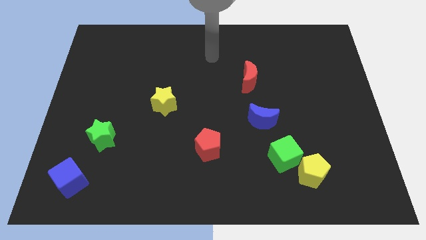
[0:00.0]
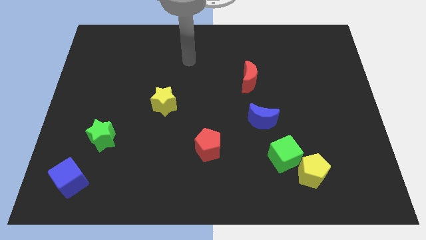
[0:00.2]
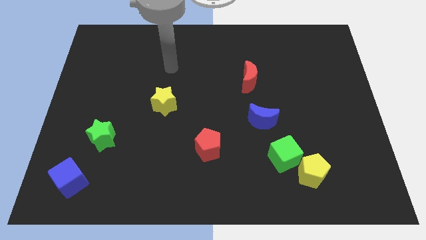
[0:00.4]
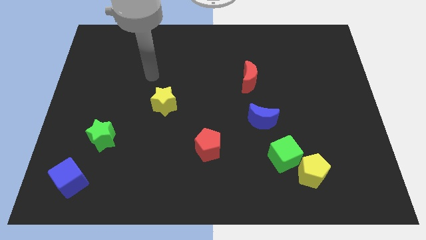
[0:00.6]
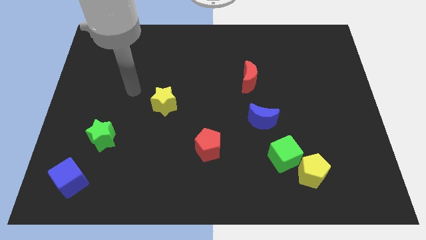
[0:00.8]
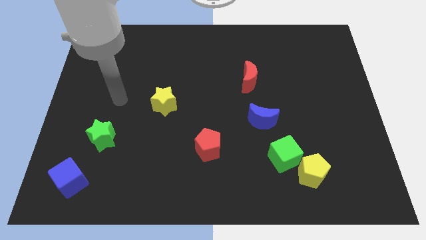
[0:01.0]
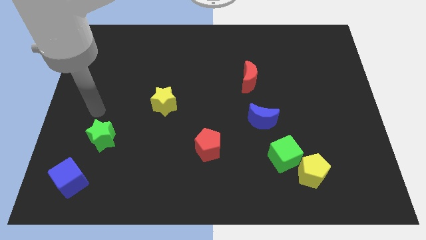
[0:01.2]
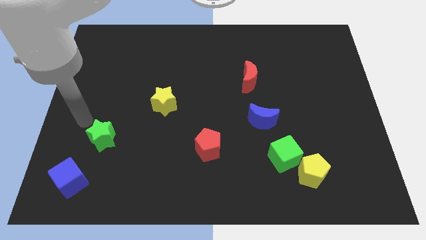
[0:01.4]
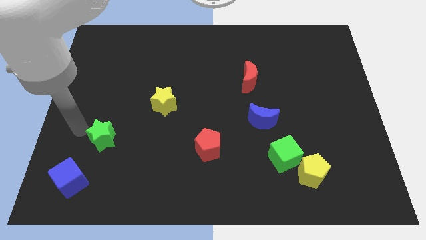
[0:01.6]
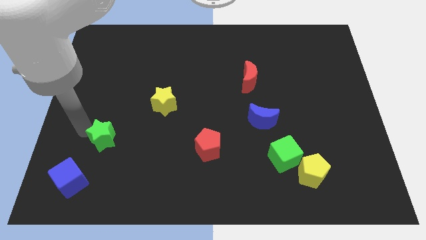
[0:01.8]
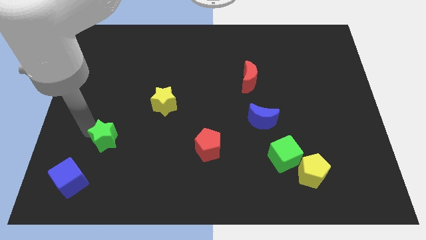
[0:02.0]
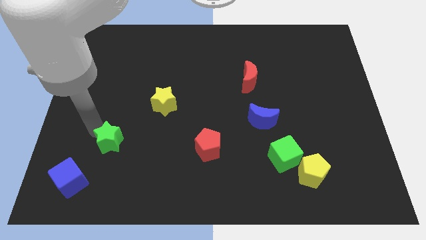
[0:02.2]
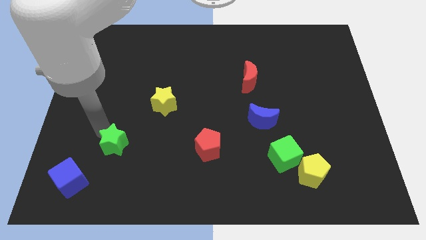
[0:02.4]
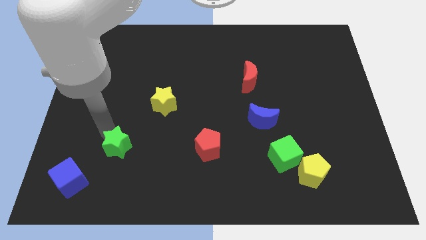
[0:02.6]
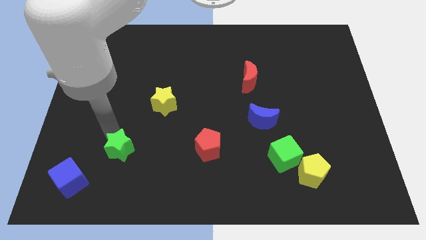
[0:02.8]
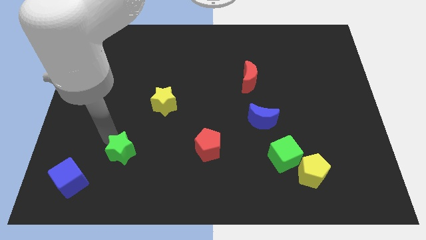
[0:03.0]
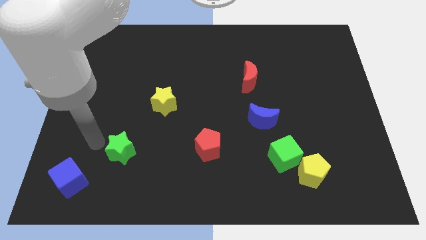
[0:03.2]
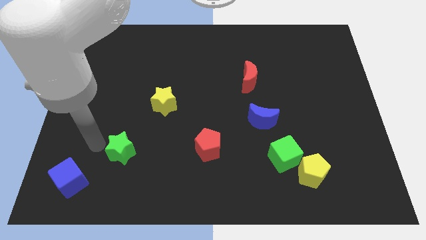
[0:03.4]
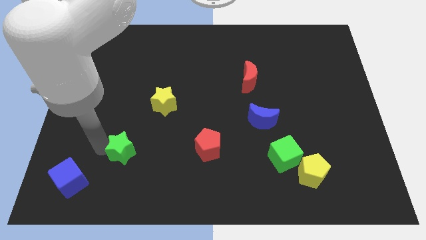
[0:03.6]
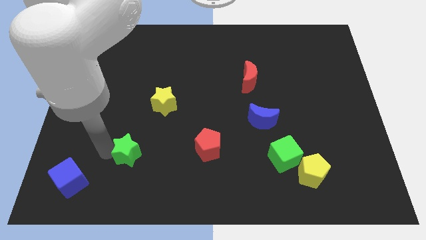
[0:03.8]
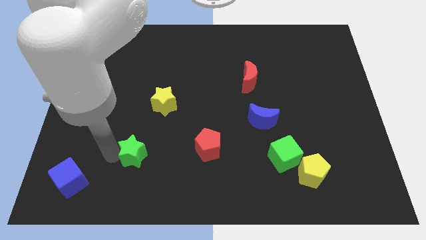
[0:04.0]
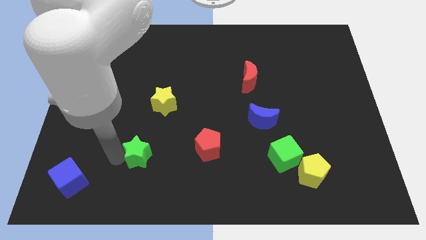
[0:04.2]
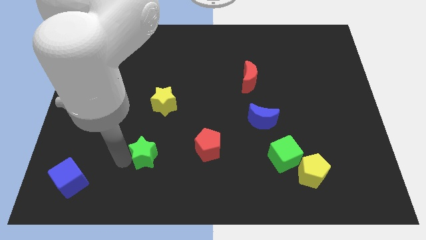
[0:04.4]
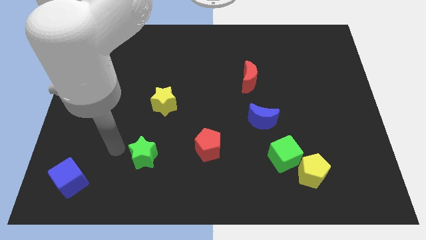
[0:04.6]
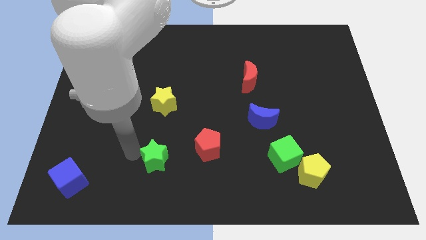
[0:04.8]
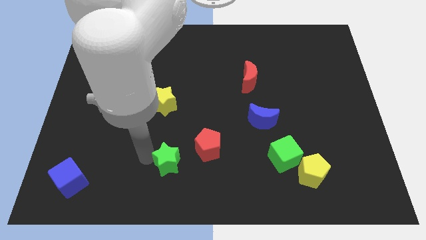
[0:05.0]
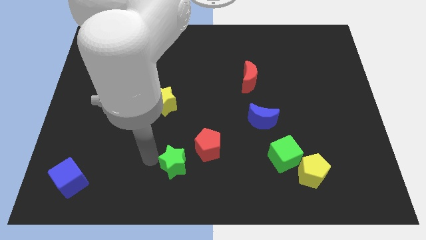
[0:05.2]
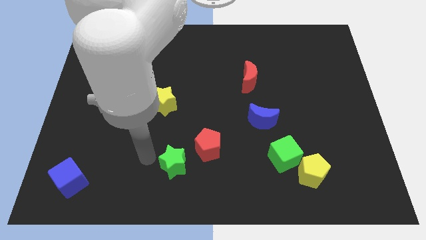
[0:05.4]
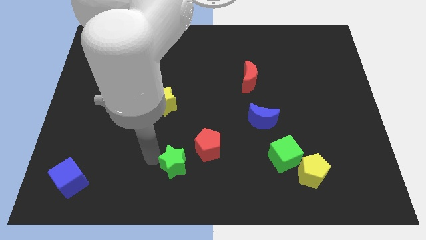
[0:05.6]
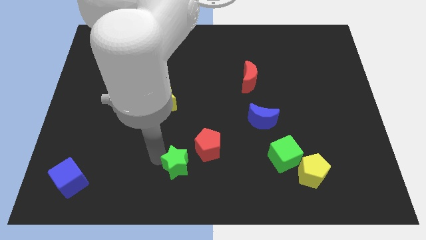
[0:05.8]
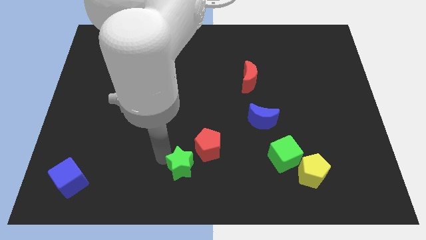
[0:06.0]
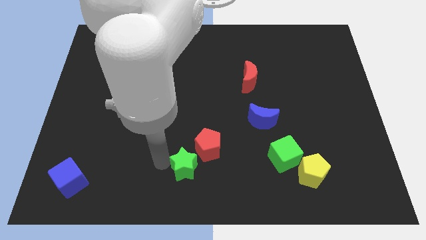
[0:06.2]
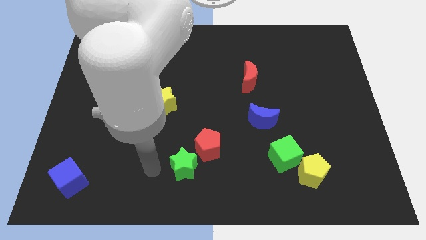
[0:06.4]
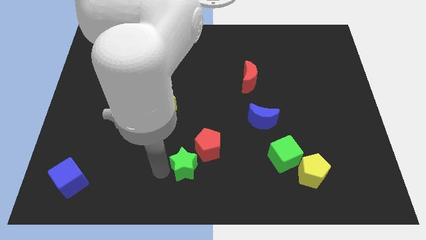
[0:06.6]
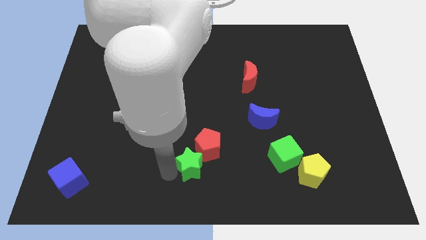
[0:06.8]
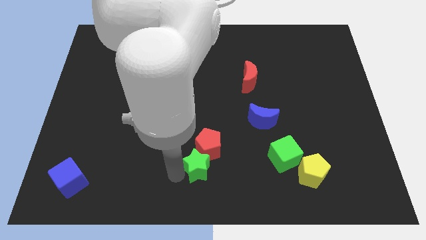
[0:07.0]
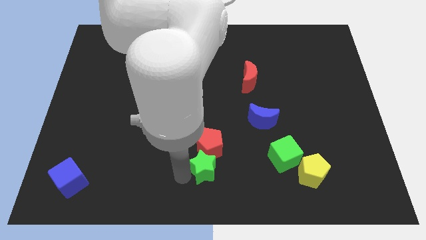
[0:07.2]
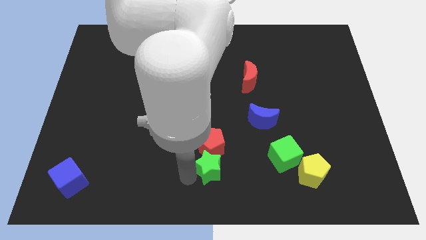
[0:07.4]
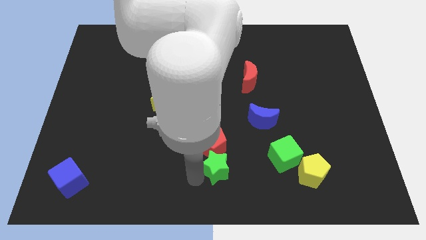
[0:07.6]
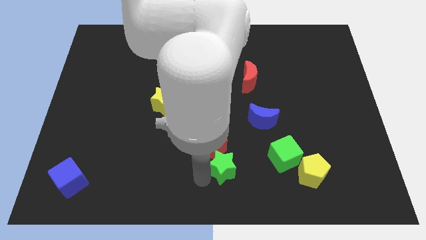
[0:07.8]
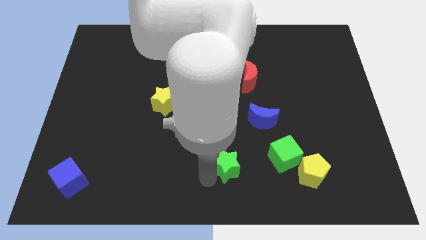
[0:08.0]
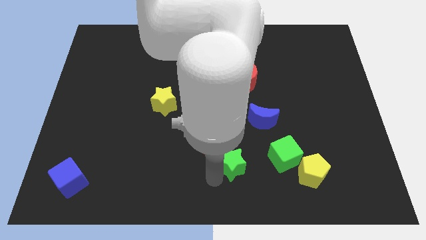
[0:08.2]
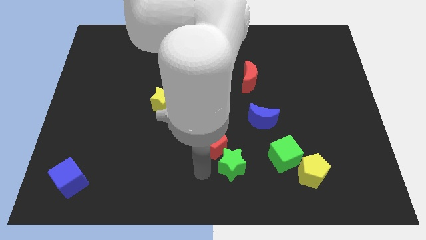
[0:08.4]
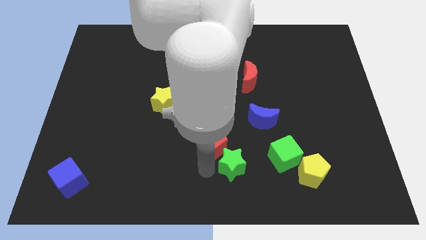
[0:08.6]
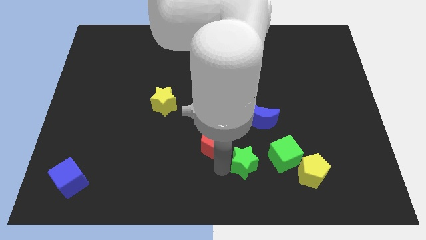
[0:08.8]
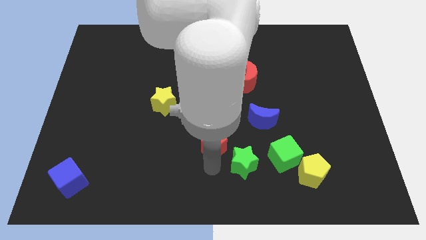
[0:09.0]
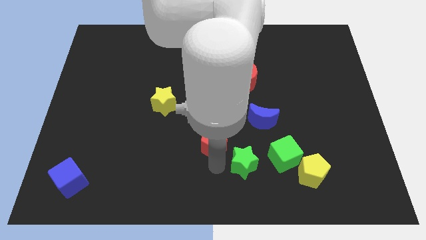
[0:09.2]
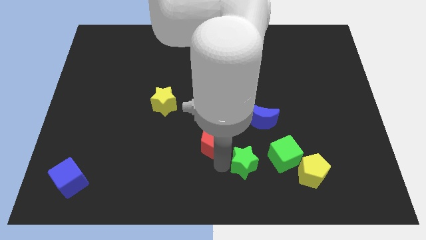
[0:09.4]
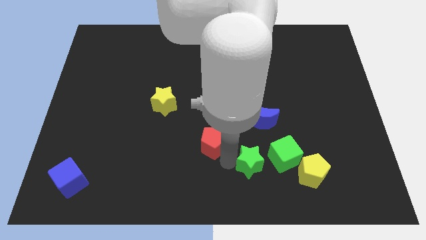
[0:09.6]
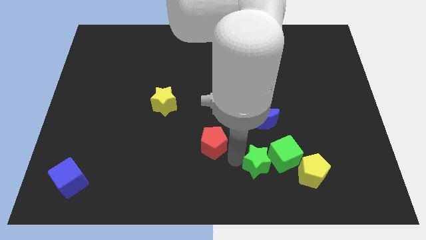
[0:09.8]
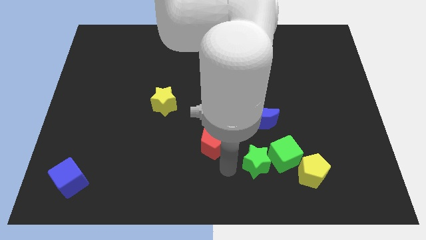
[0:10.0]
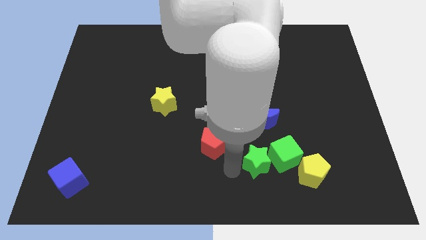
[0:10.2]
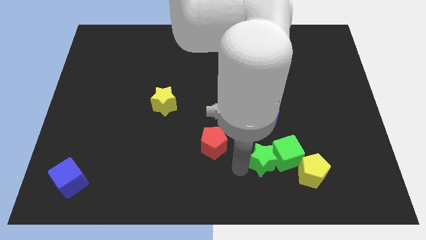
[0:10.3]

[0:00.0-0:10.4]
push the green star to the green cube

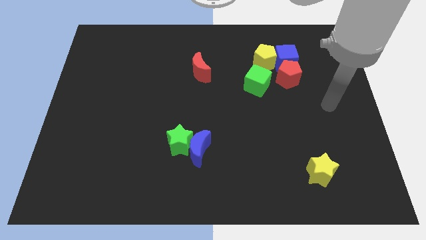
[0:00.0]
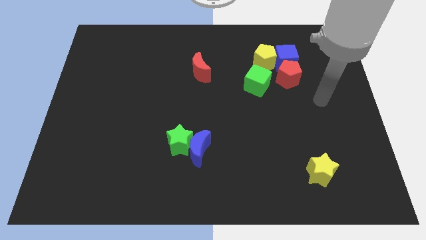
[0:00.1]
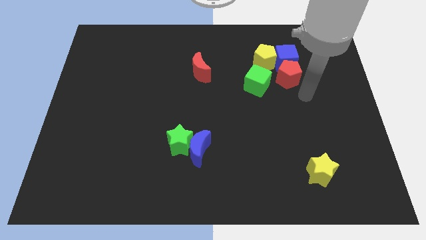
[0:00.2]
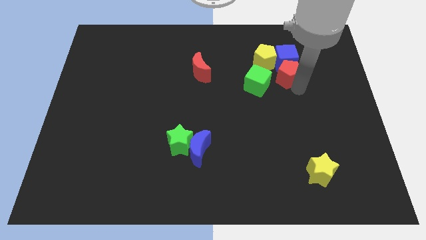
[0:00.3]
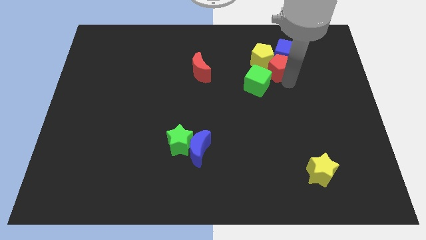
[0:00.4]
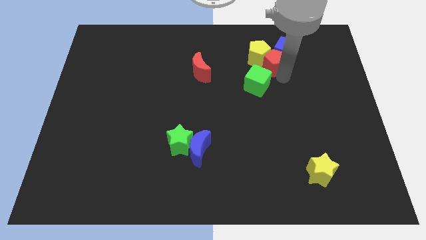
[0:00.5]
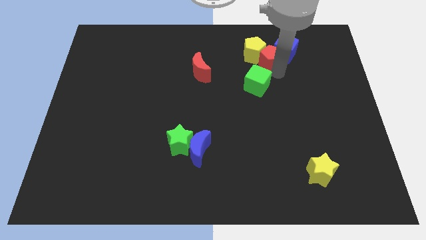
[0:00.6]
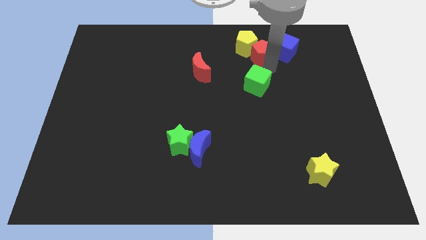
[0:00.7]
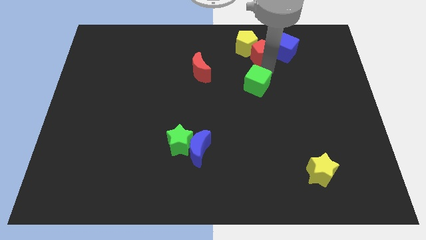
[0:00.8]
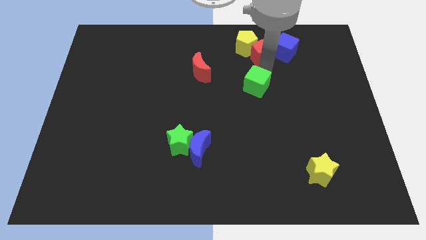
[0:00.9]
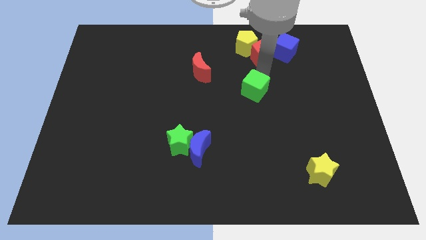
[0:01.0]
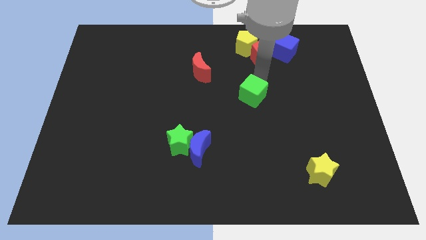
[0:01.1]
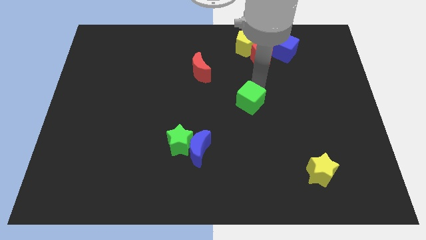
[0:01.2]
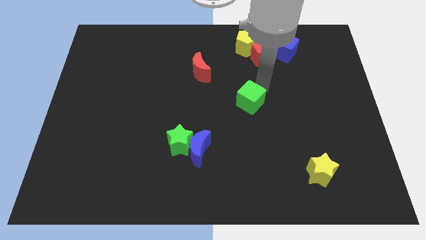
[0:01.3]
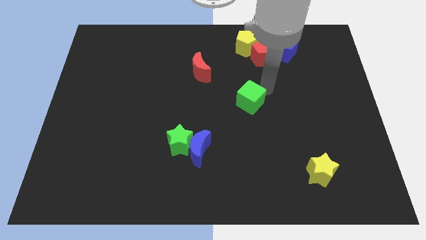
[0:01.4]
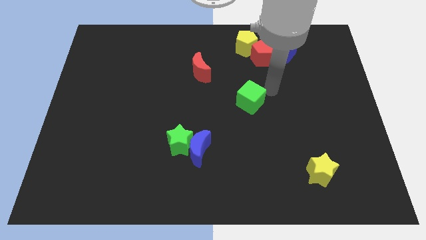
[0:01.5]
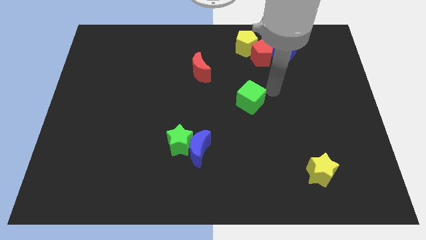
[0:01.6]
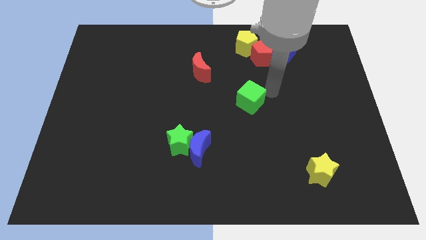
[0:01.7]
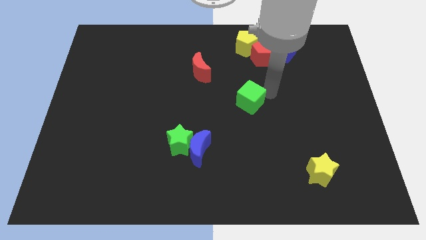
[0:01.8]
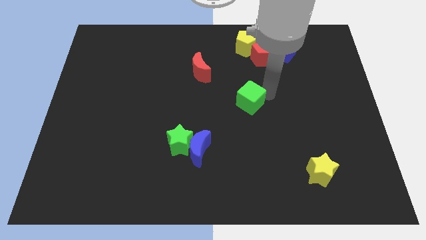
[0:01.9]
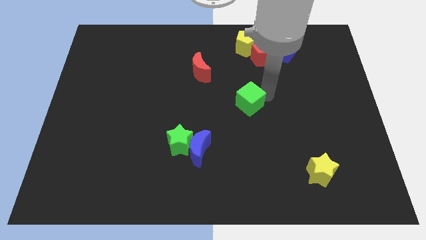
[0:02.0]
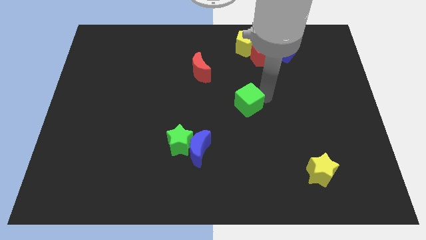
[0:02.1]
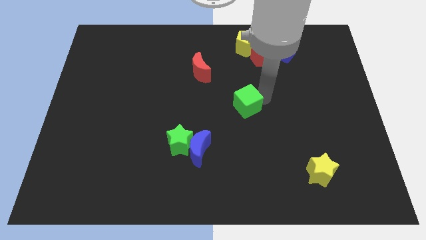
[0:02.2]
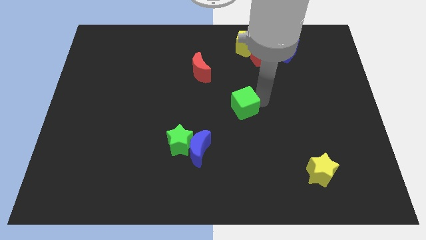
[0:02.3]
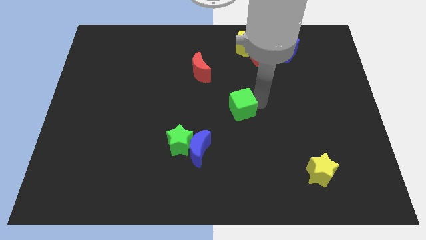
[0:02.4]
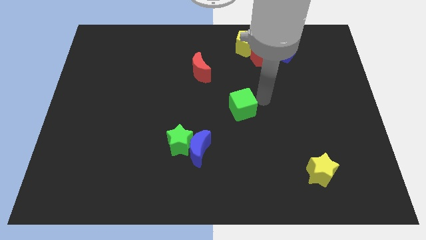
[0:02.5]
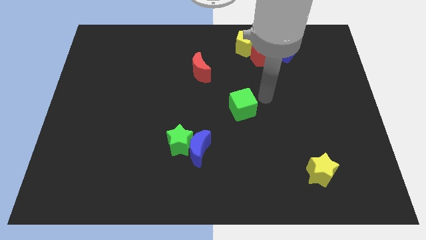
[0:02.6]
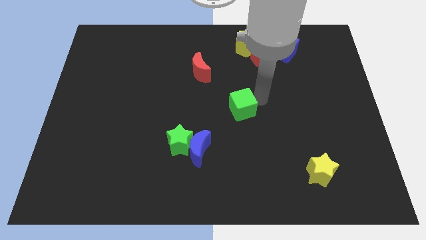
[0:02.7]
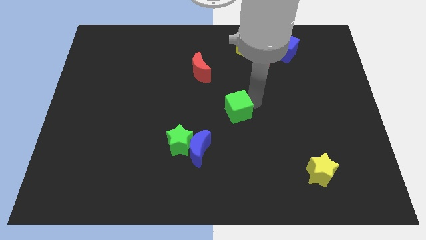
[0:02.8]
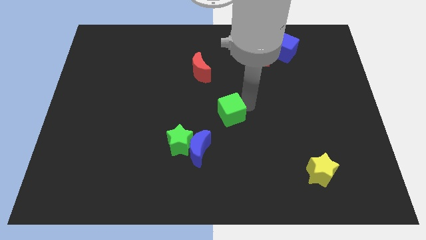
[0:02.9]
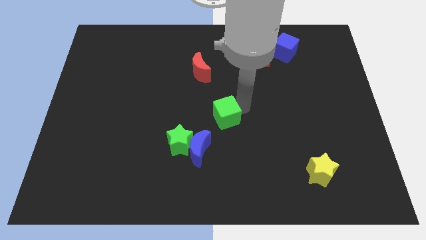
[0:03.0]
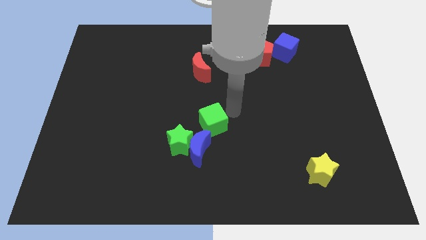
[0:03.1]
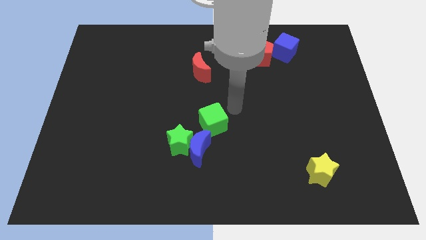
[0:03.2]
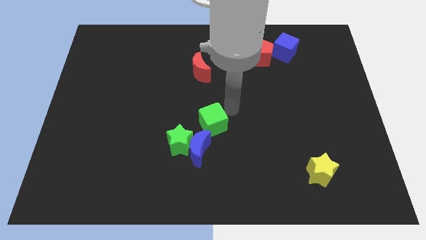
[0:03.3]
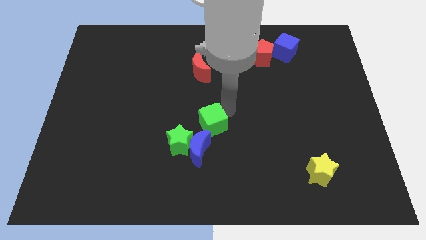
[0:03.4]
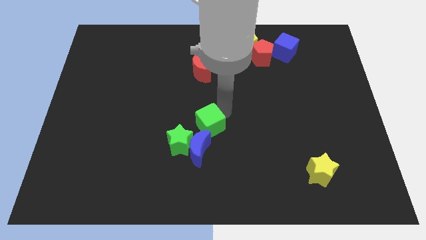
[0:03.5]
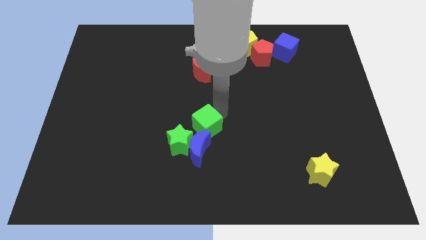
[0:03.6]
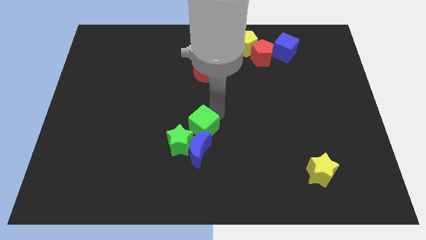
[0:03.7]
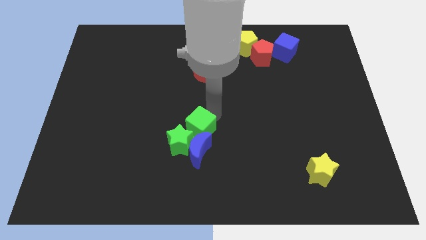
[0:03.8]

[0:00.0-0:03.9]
slide the green cube close to the green star
